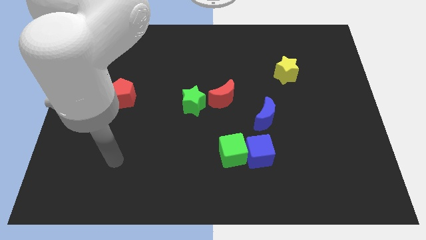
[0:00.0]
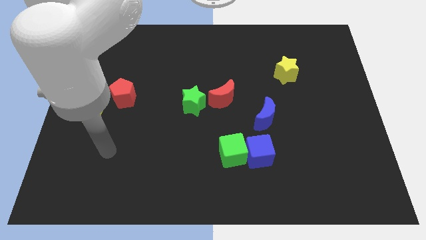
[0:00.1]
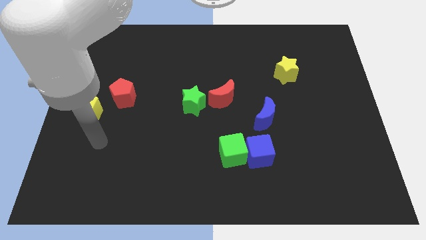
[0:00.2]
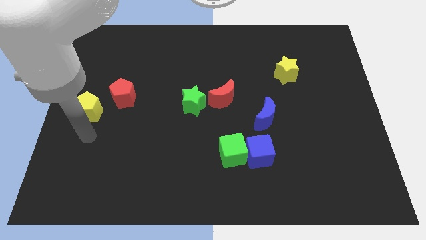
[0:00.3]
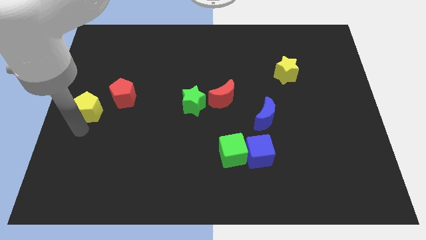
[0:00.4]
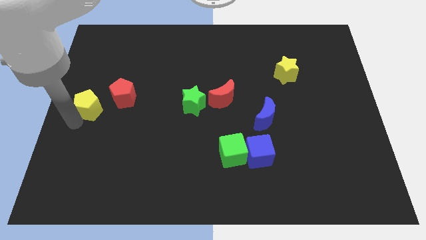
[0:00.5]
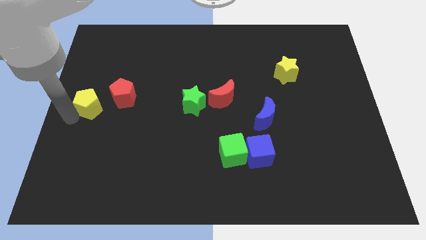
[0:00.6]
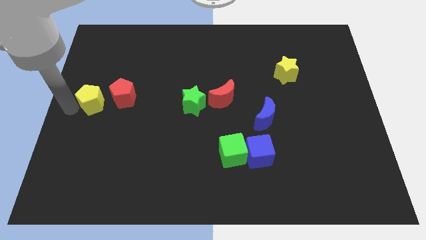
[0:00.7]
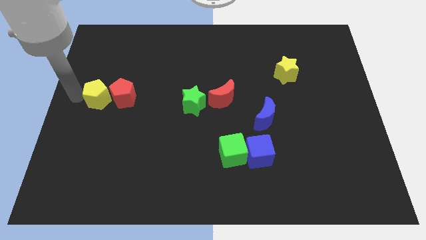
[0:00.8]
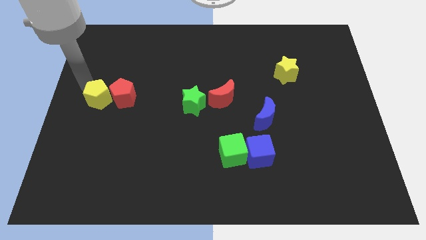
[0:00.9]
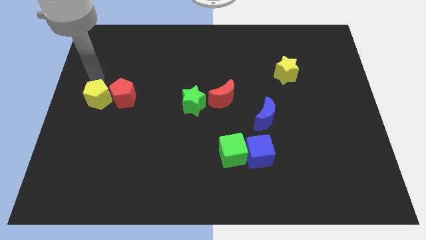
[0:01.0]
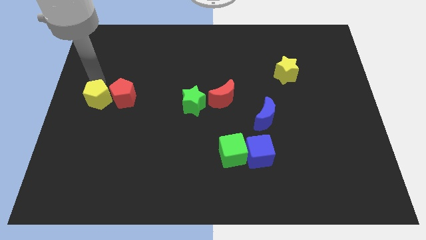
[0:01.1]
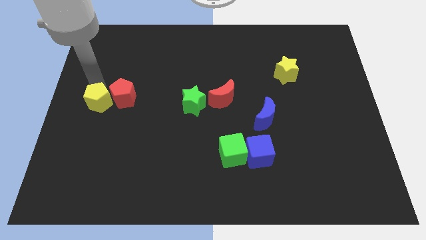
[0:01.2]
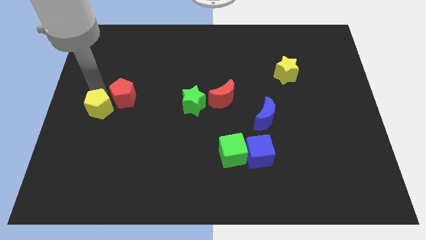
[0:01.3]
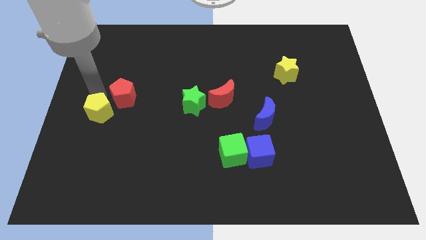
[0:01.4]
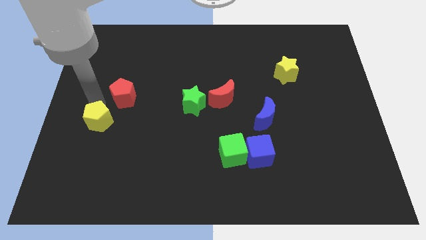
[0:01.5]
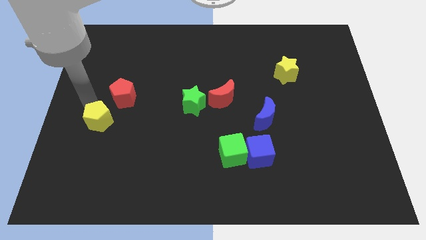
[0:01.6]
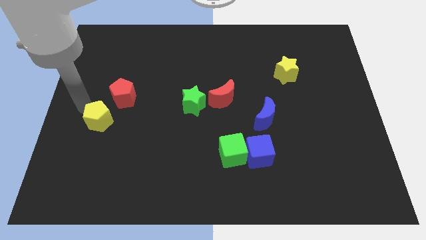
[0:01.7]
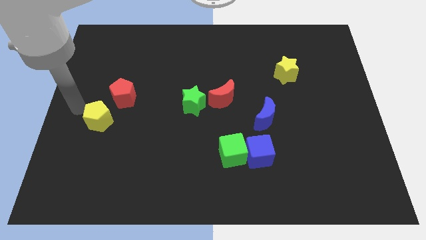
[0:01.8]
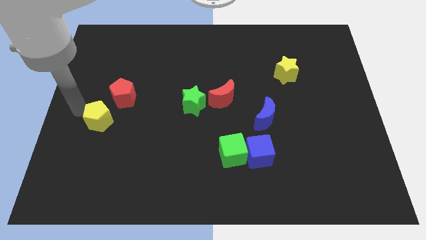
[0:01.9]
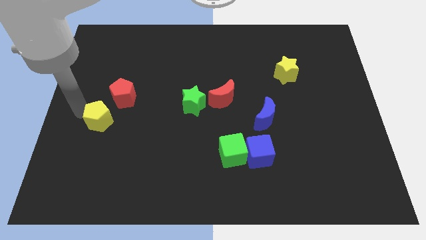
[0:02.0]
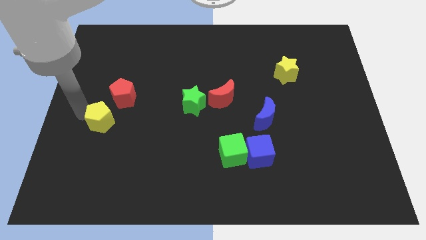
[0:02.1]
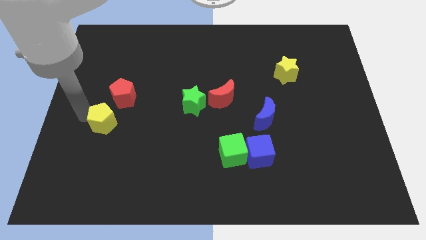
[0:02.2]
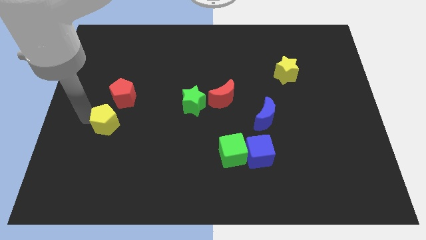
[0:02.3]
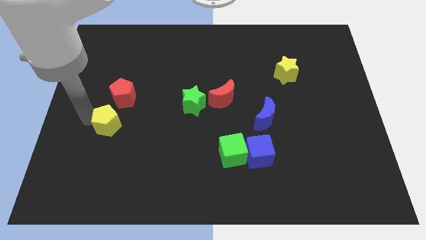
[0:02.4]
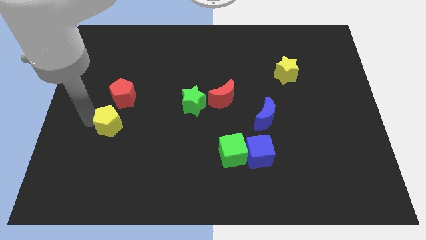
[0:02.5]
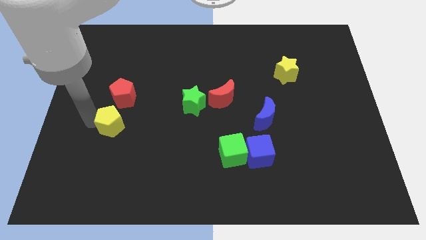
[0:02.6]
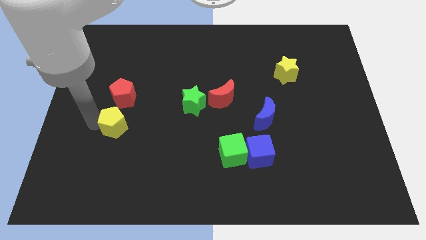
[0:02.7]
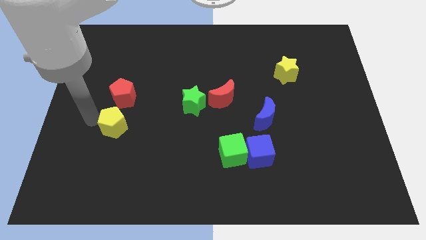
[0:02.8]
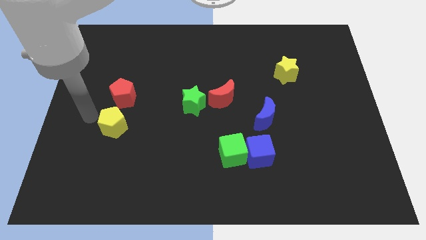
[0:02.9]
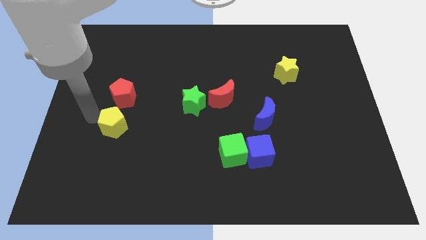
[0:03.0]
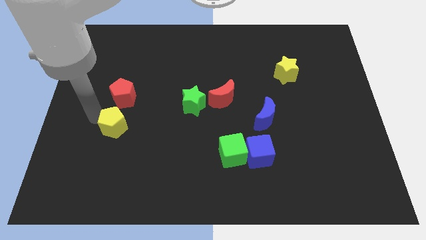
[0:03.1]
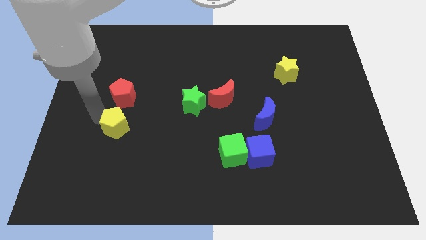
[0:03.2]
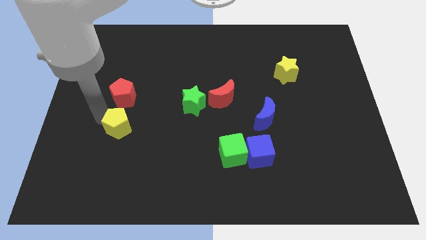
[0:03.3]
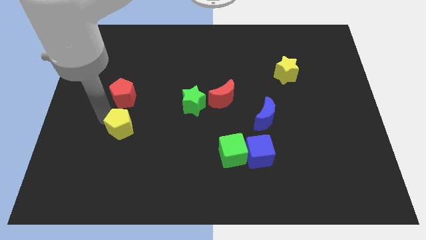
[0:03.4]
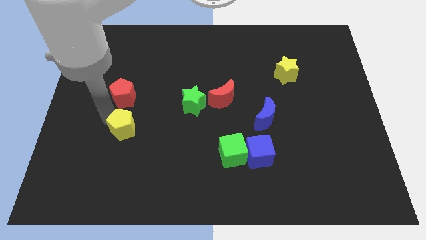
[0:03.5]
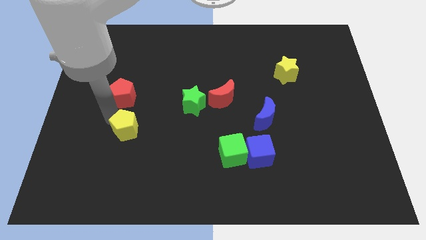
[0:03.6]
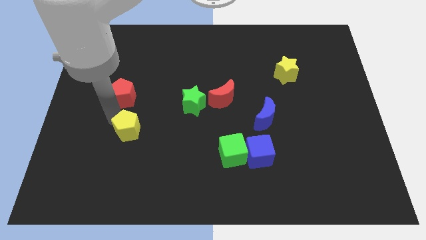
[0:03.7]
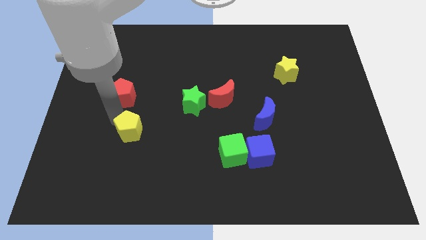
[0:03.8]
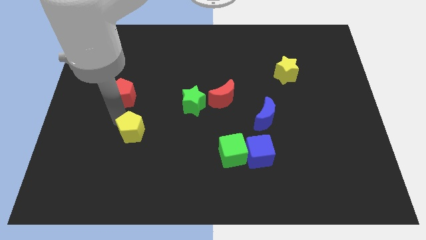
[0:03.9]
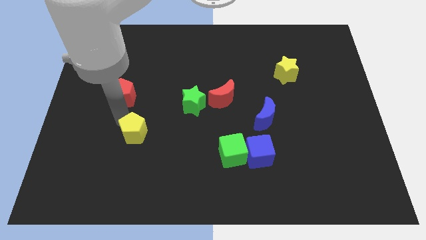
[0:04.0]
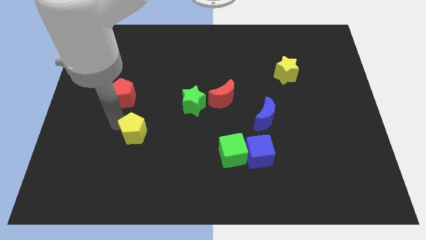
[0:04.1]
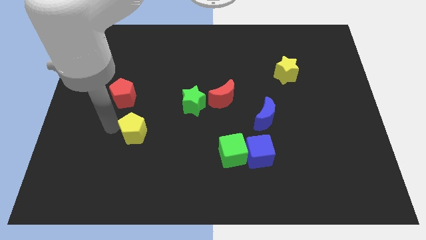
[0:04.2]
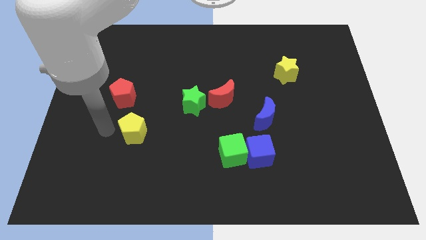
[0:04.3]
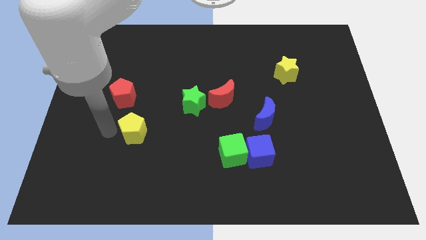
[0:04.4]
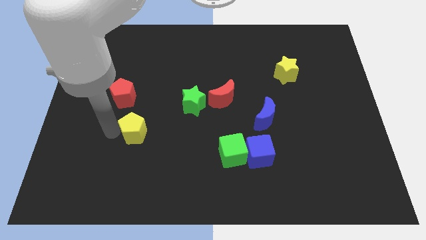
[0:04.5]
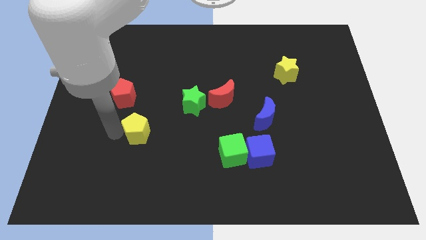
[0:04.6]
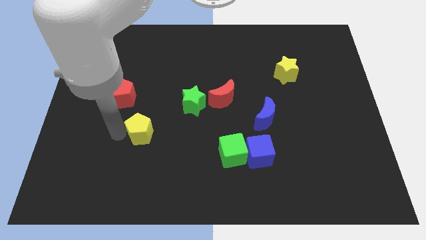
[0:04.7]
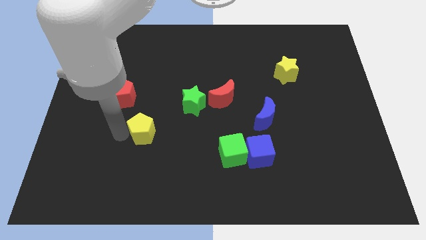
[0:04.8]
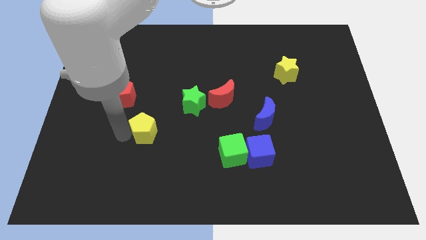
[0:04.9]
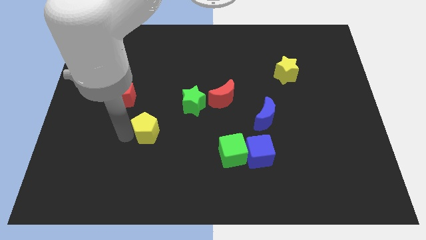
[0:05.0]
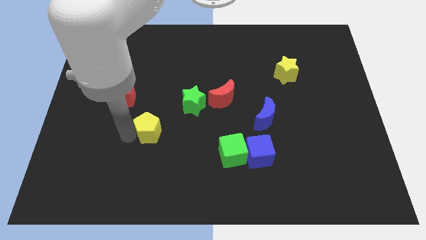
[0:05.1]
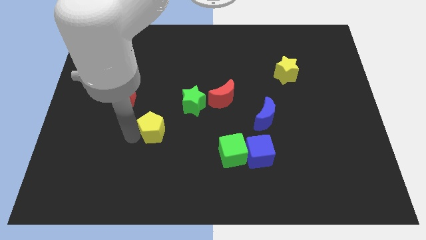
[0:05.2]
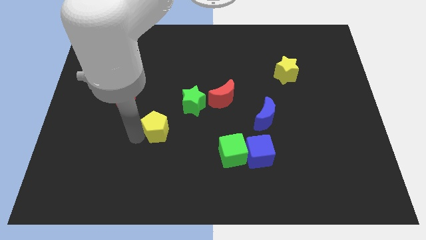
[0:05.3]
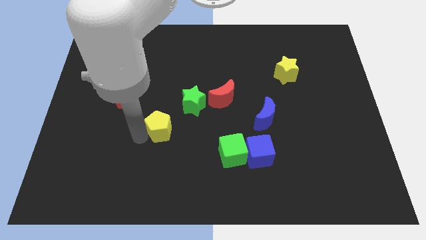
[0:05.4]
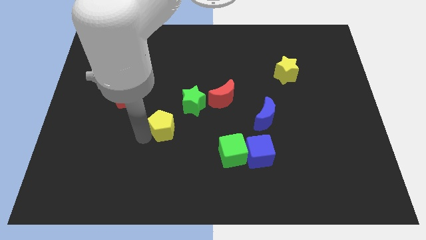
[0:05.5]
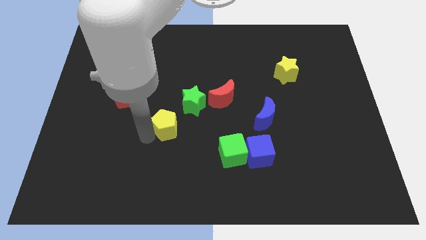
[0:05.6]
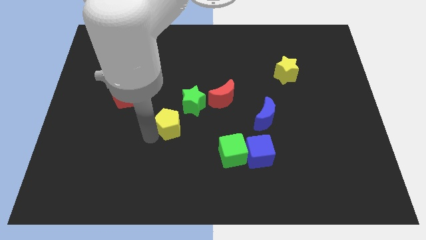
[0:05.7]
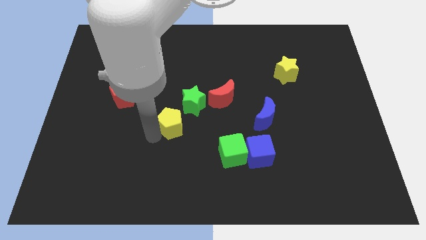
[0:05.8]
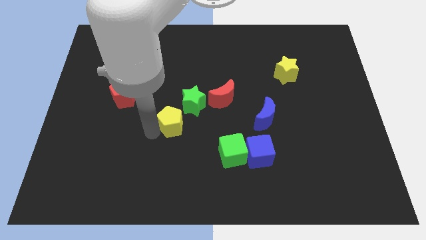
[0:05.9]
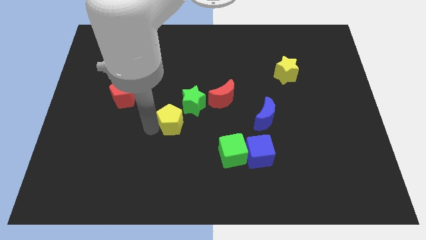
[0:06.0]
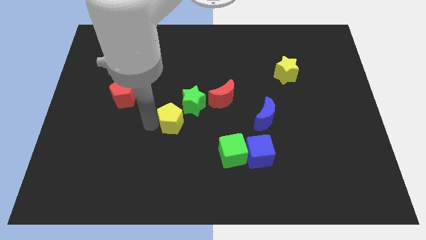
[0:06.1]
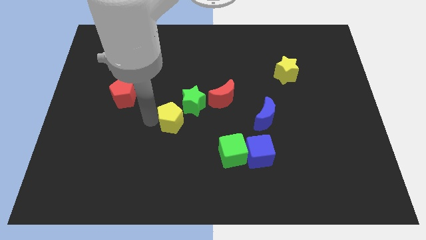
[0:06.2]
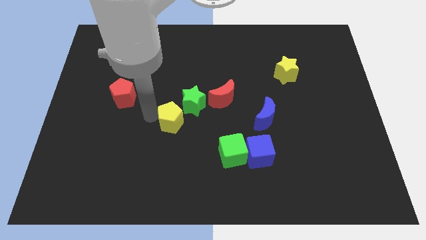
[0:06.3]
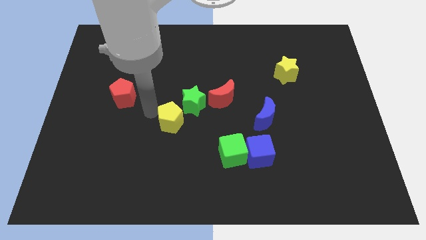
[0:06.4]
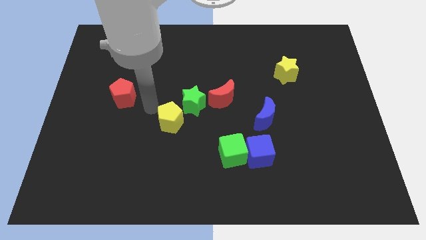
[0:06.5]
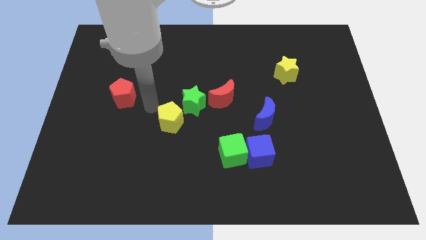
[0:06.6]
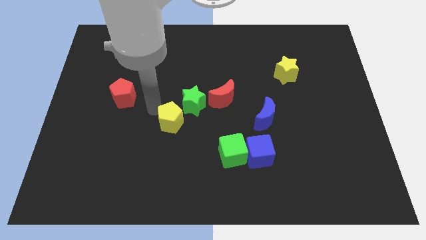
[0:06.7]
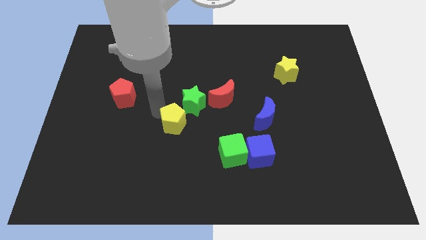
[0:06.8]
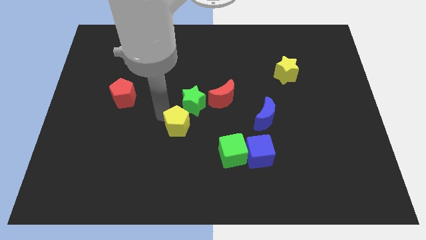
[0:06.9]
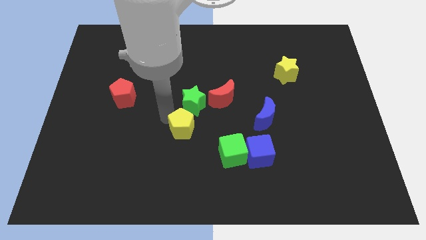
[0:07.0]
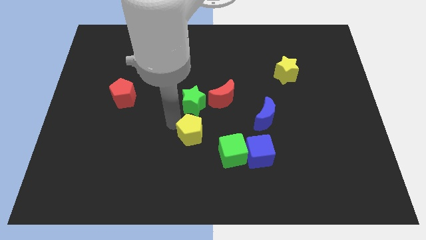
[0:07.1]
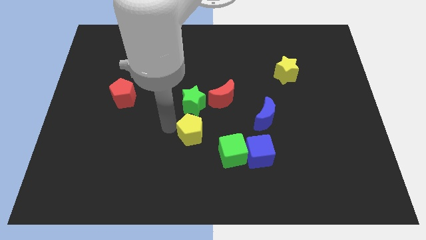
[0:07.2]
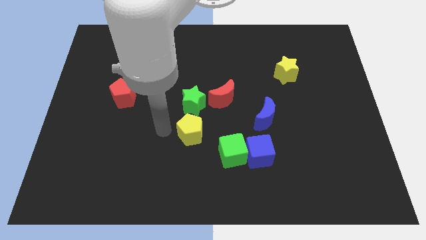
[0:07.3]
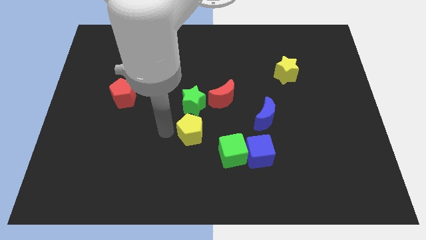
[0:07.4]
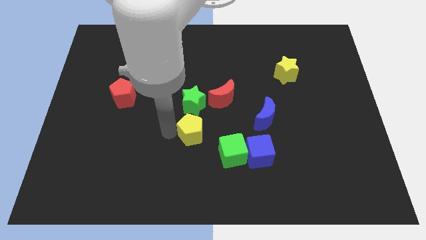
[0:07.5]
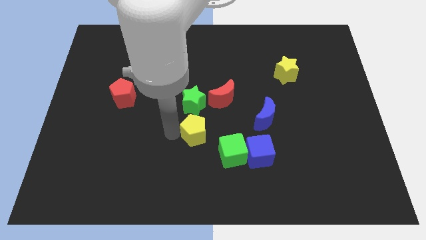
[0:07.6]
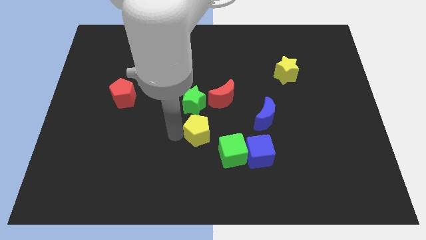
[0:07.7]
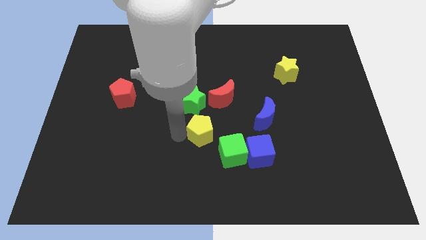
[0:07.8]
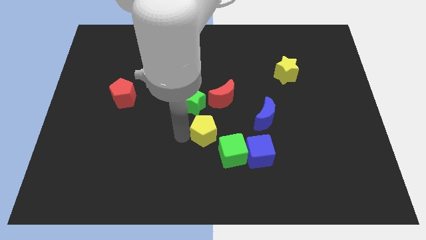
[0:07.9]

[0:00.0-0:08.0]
slide the yellow pentagon to the bottom side of the red moon

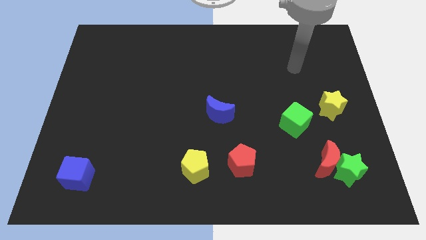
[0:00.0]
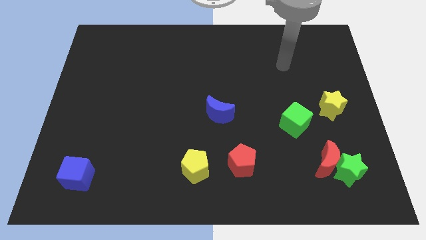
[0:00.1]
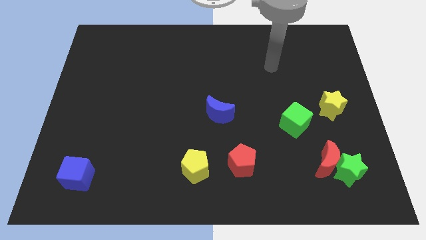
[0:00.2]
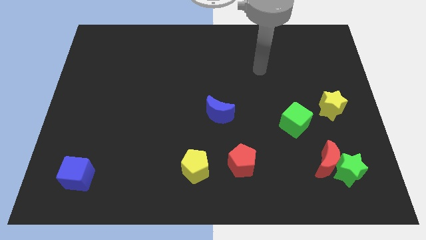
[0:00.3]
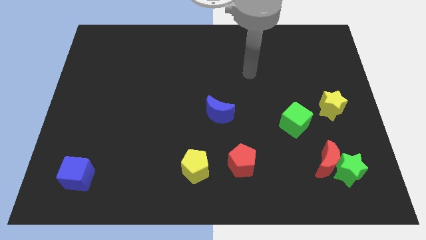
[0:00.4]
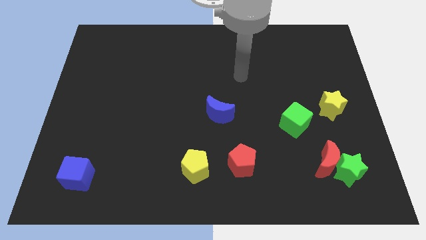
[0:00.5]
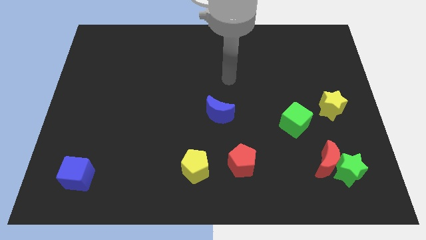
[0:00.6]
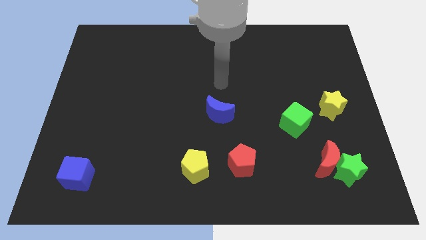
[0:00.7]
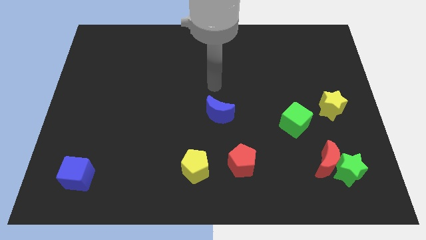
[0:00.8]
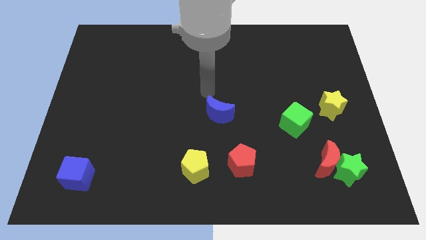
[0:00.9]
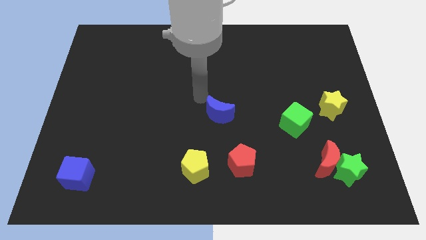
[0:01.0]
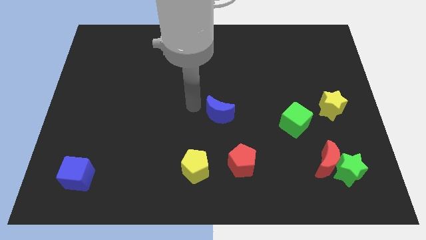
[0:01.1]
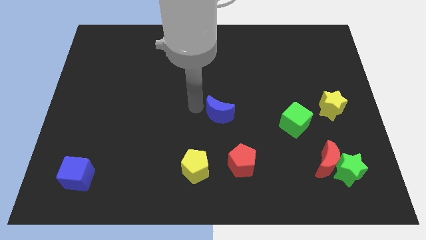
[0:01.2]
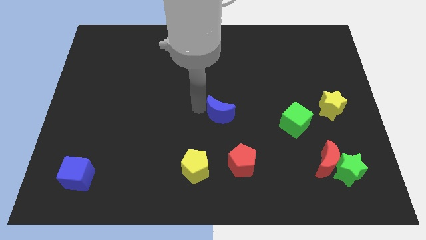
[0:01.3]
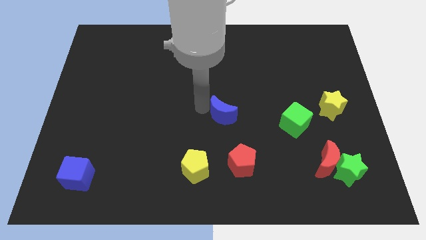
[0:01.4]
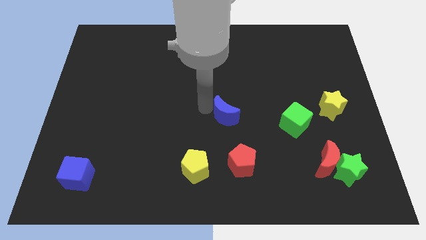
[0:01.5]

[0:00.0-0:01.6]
push the blue moon just left of the green cube
